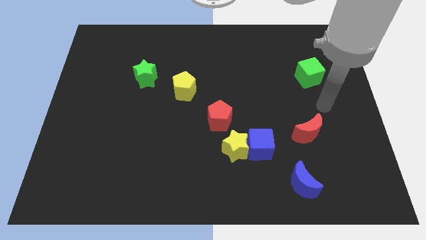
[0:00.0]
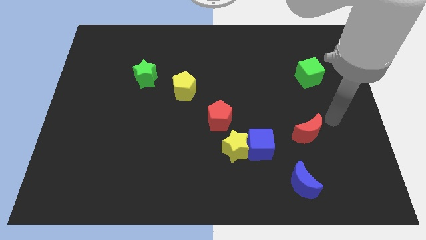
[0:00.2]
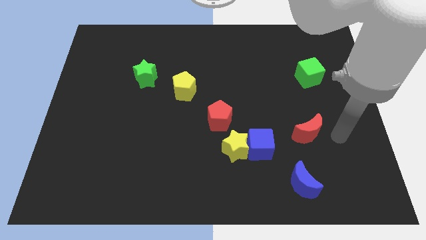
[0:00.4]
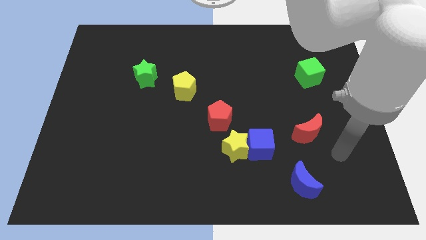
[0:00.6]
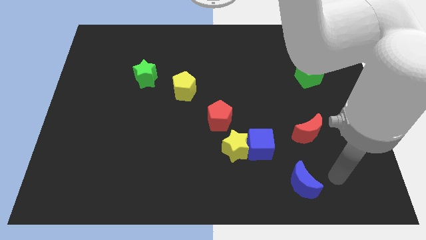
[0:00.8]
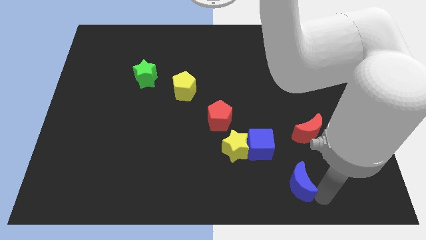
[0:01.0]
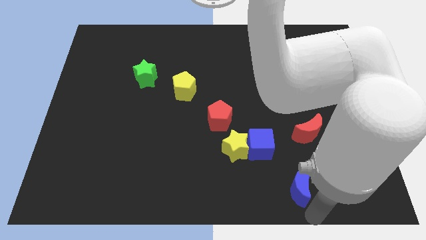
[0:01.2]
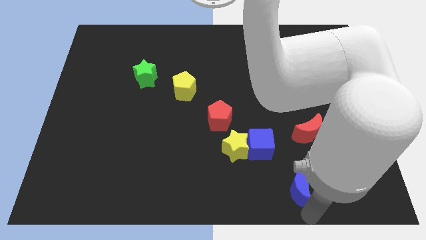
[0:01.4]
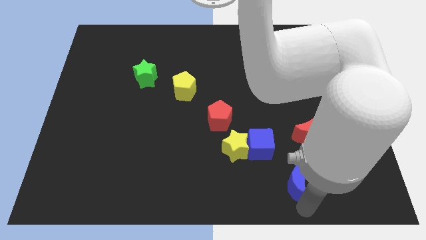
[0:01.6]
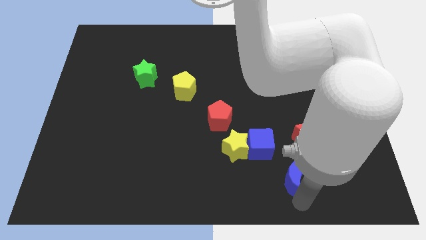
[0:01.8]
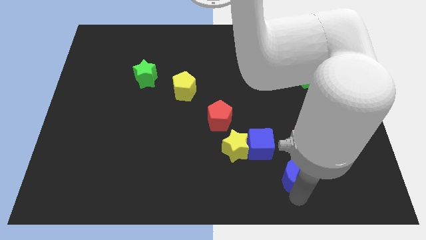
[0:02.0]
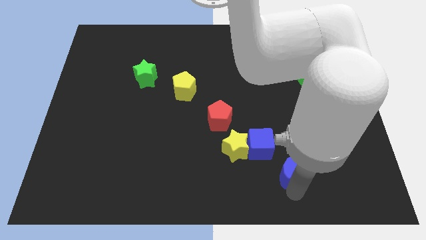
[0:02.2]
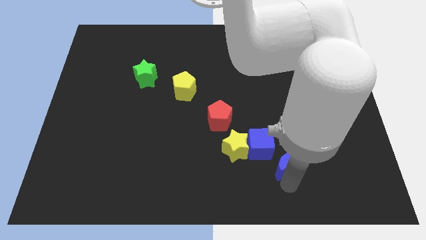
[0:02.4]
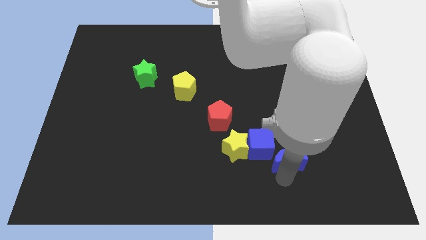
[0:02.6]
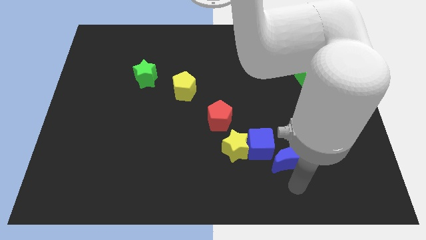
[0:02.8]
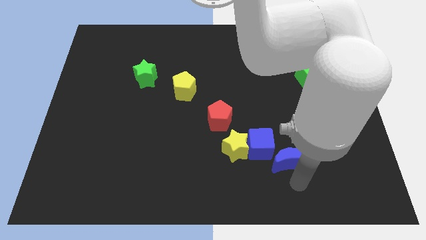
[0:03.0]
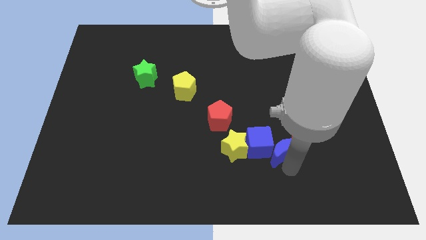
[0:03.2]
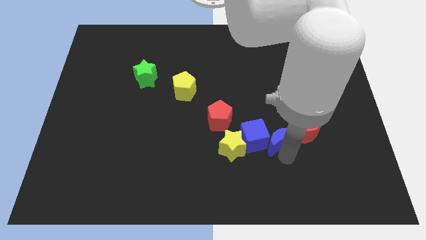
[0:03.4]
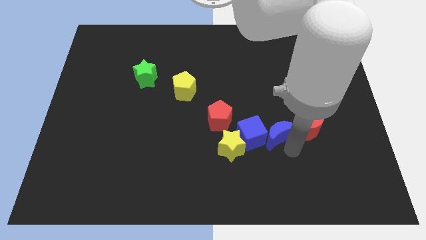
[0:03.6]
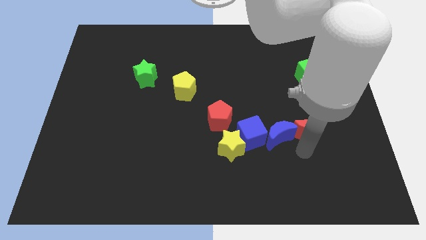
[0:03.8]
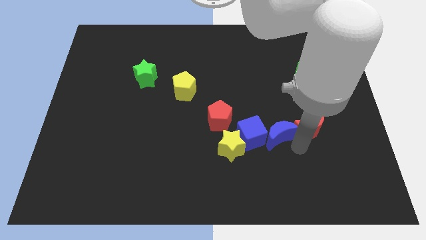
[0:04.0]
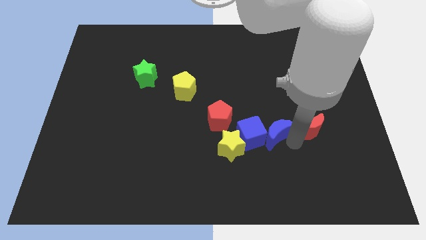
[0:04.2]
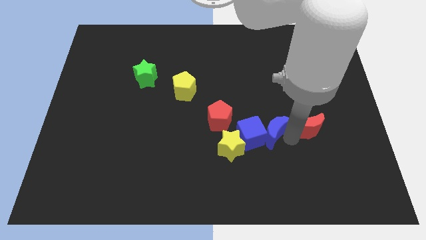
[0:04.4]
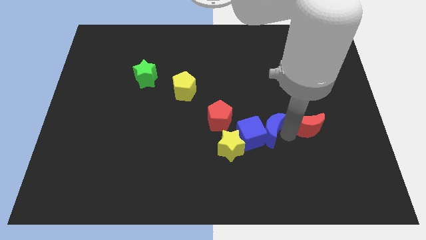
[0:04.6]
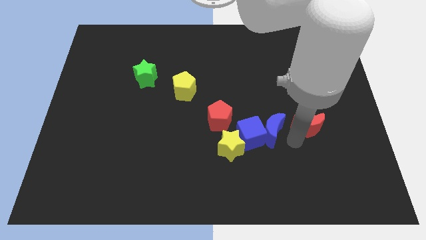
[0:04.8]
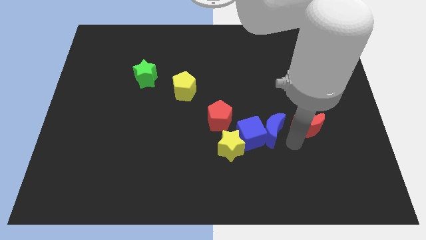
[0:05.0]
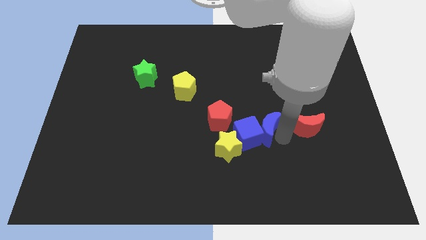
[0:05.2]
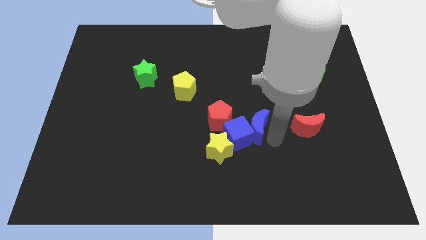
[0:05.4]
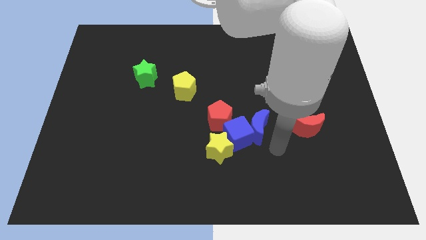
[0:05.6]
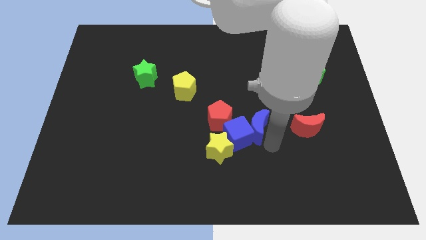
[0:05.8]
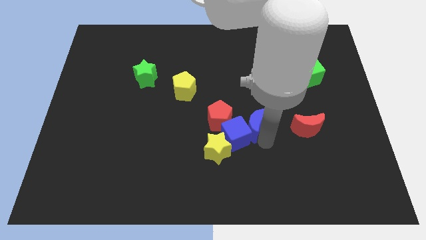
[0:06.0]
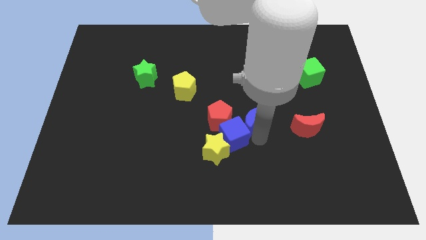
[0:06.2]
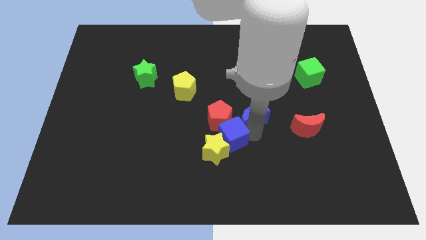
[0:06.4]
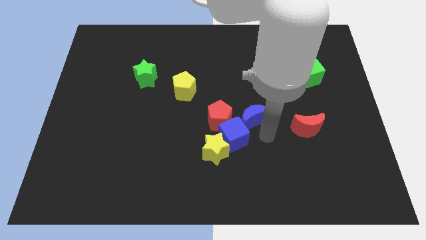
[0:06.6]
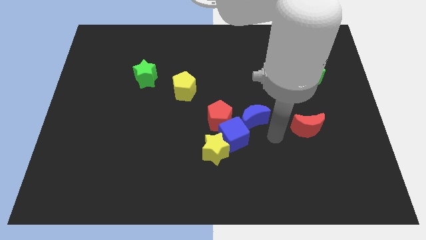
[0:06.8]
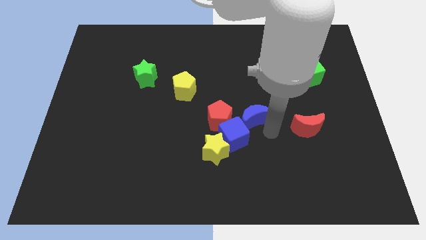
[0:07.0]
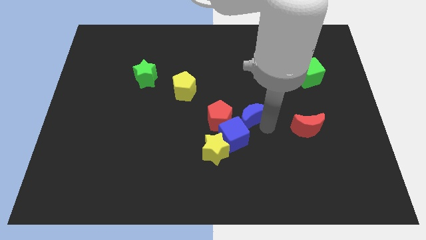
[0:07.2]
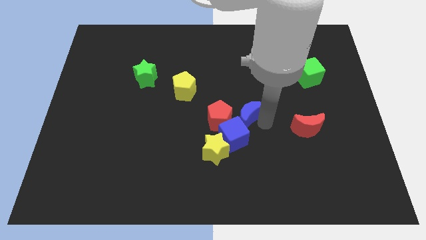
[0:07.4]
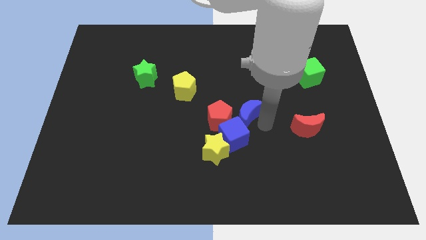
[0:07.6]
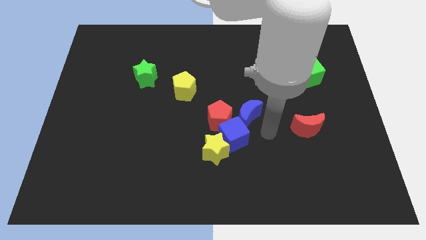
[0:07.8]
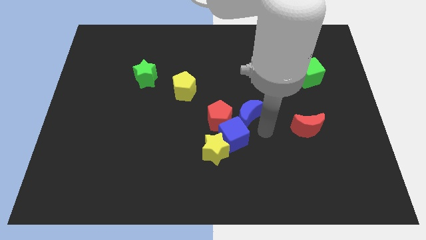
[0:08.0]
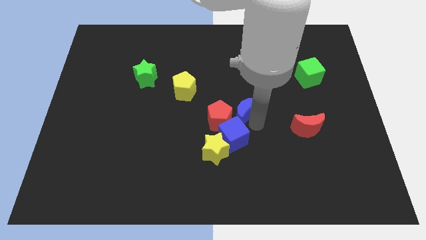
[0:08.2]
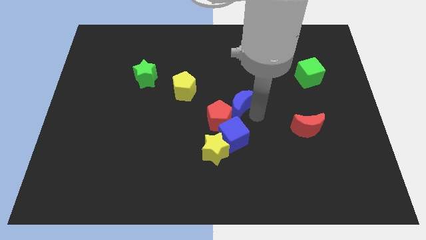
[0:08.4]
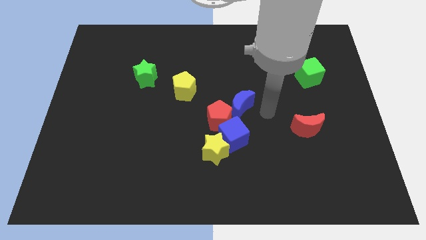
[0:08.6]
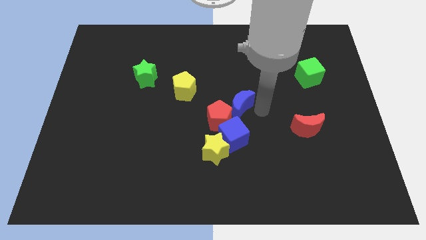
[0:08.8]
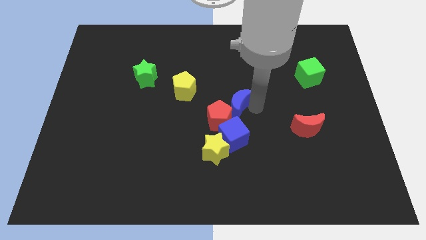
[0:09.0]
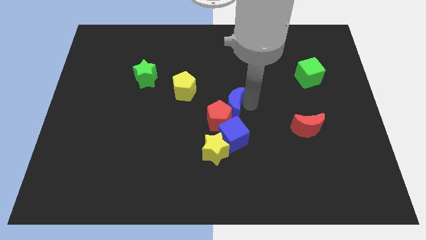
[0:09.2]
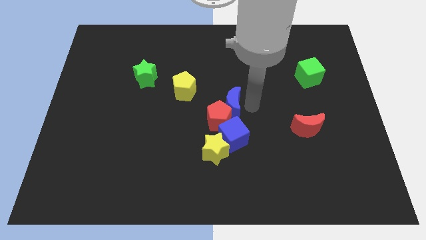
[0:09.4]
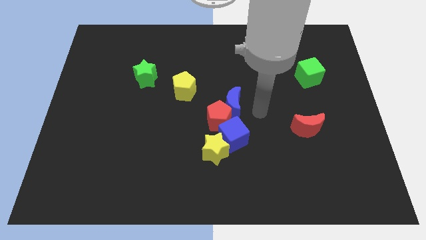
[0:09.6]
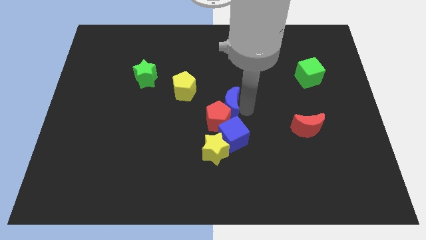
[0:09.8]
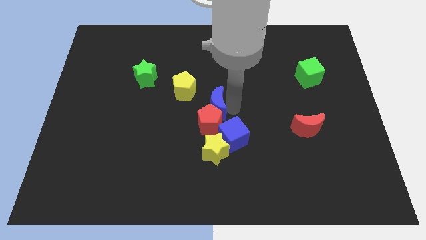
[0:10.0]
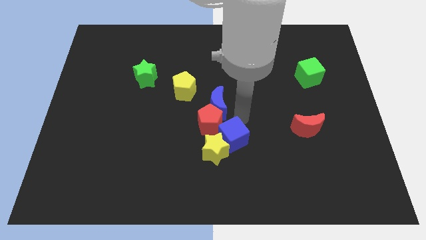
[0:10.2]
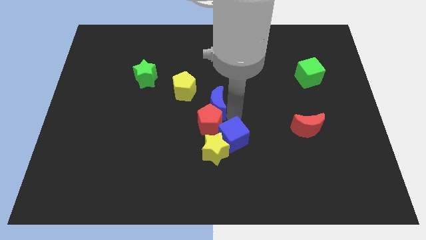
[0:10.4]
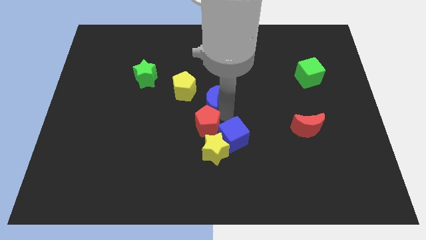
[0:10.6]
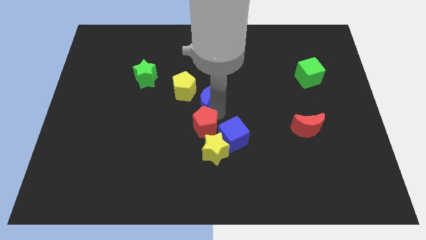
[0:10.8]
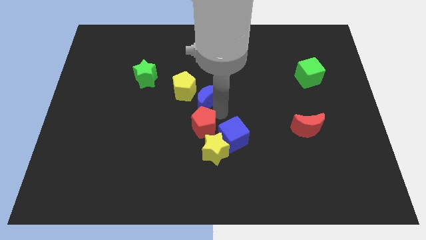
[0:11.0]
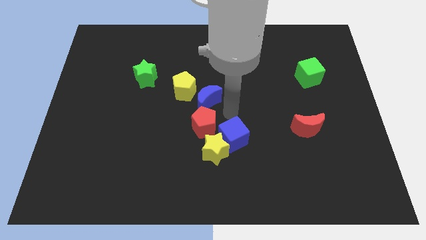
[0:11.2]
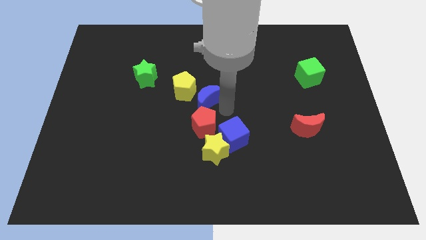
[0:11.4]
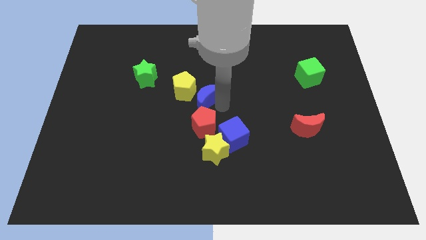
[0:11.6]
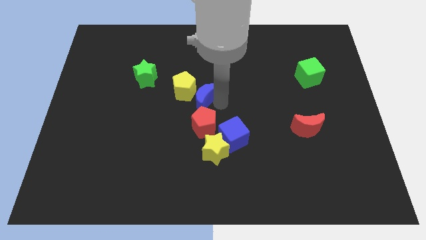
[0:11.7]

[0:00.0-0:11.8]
push the blue moon next to the yellow pentagon

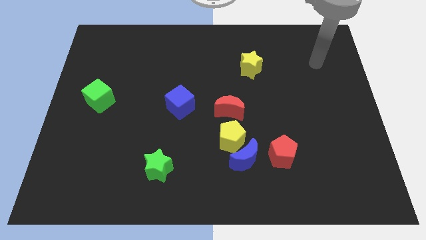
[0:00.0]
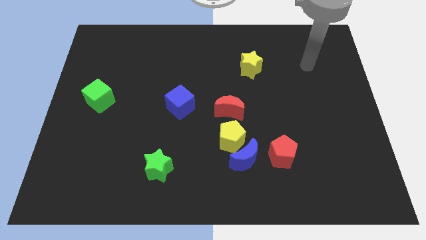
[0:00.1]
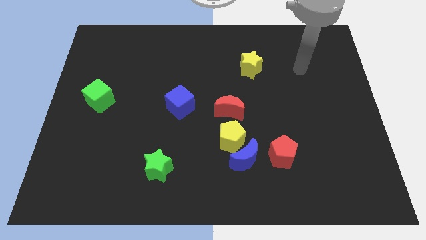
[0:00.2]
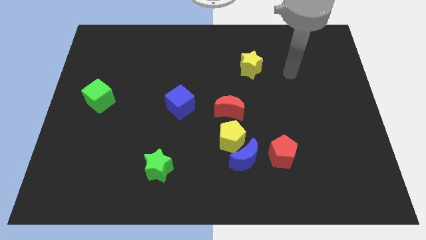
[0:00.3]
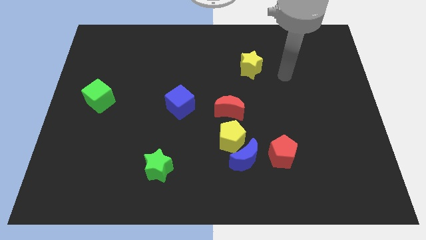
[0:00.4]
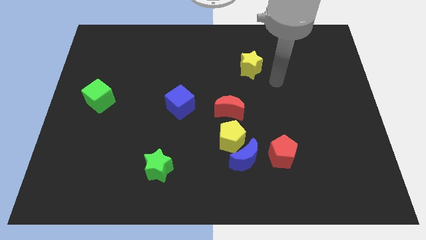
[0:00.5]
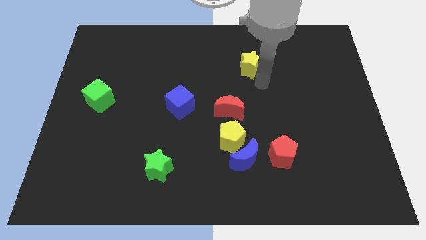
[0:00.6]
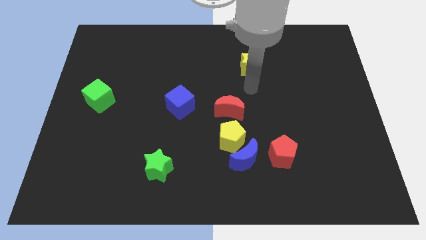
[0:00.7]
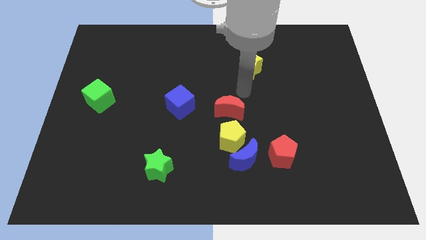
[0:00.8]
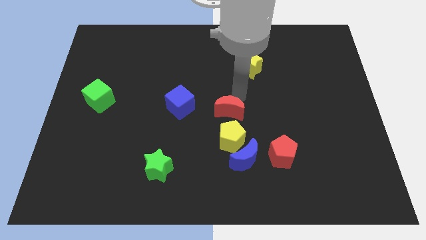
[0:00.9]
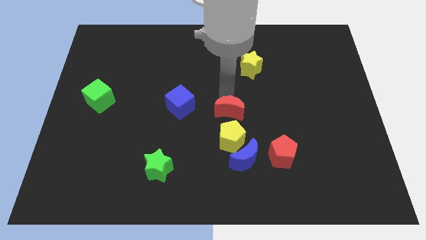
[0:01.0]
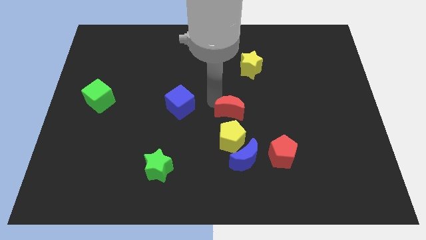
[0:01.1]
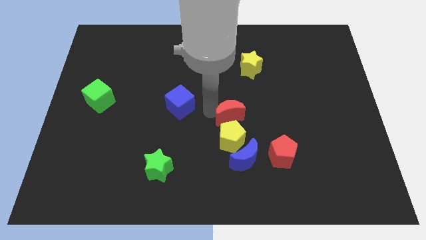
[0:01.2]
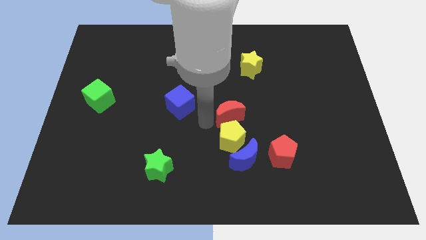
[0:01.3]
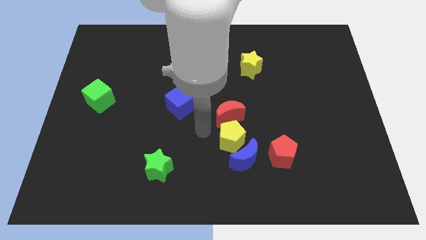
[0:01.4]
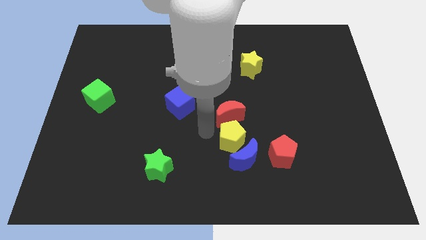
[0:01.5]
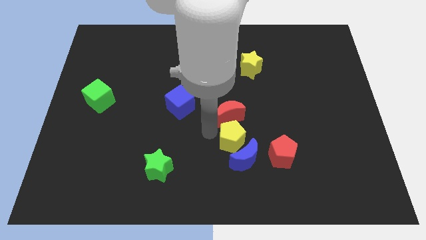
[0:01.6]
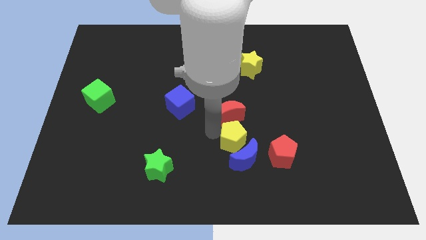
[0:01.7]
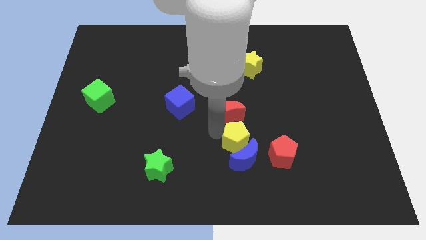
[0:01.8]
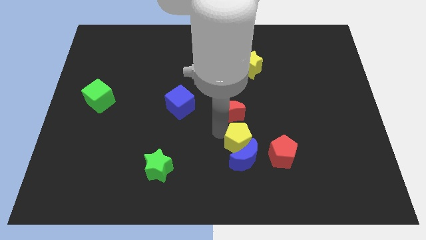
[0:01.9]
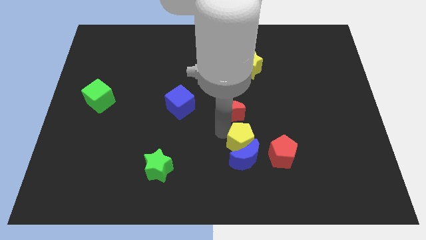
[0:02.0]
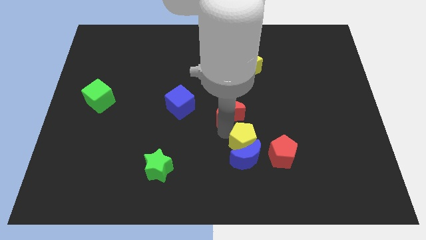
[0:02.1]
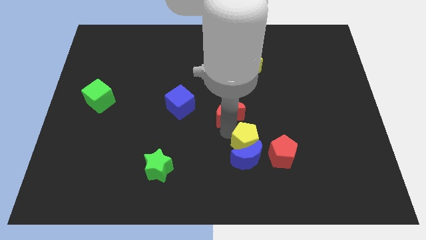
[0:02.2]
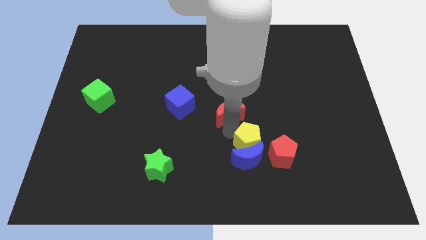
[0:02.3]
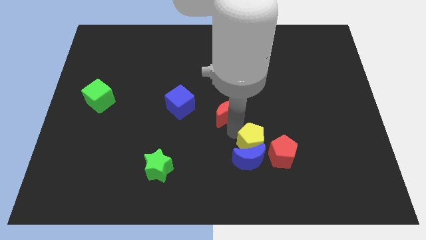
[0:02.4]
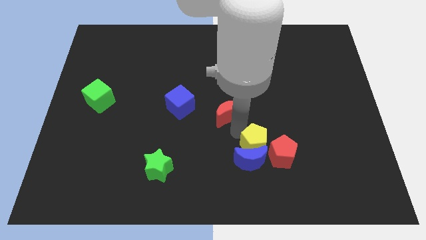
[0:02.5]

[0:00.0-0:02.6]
push the yellow pentagon to the red pentagon
